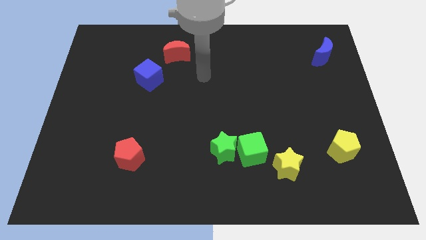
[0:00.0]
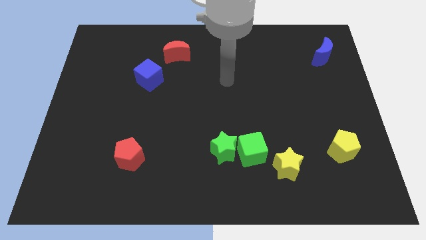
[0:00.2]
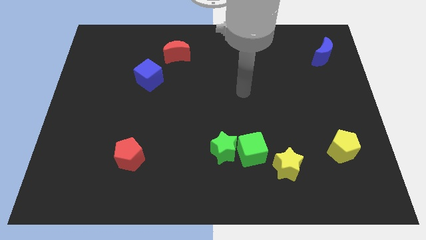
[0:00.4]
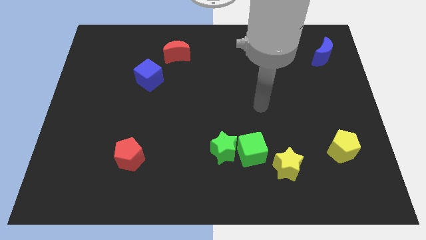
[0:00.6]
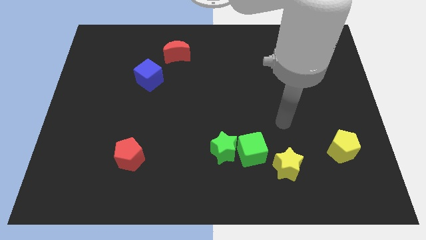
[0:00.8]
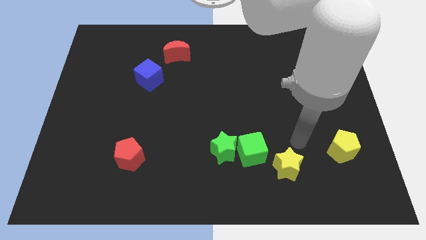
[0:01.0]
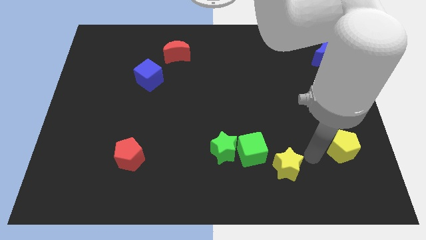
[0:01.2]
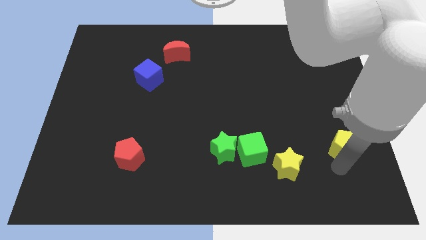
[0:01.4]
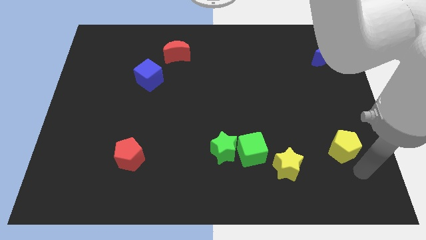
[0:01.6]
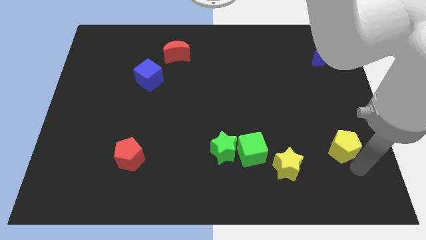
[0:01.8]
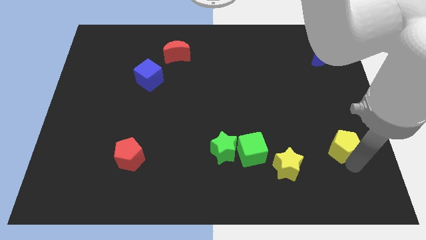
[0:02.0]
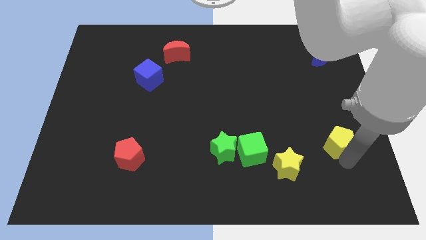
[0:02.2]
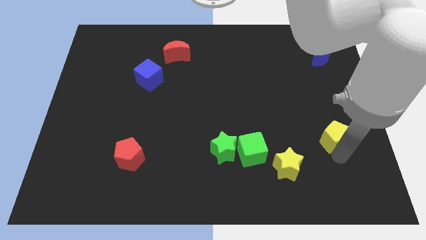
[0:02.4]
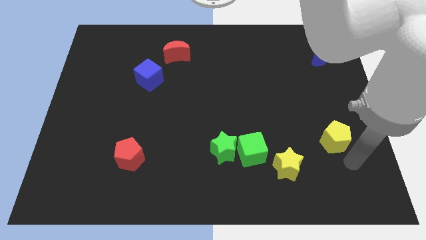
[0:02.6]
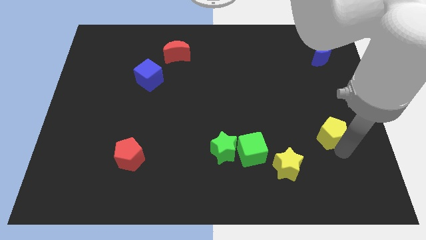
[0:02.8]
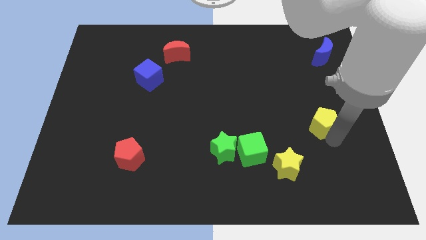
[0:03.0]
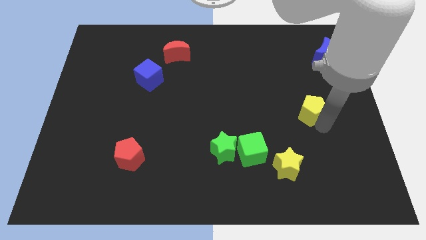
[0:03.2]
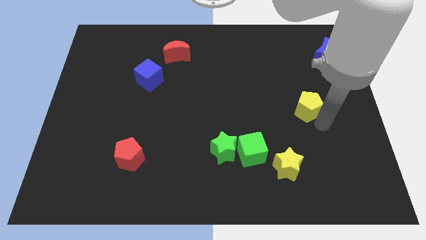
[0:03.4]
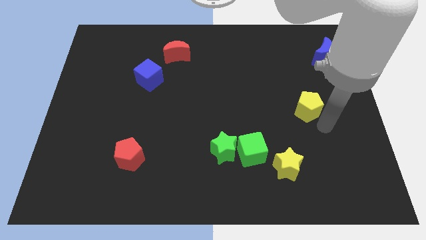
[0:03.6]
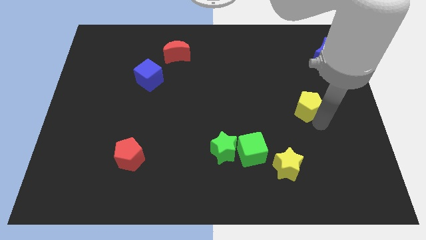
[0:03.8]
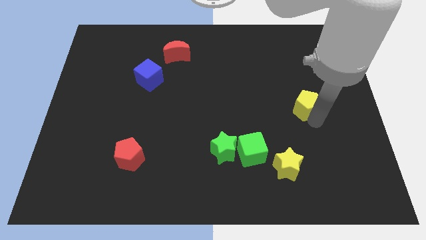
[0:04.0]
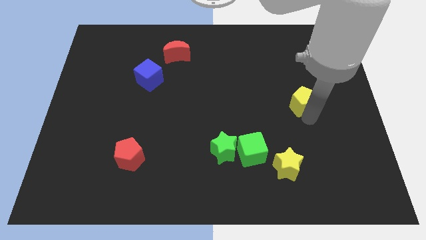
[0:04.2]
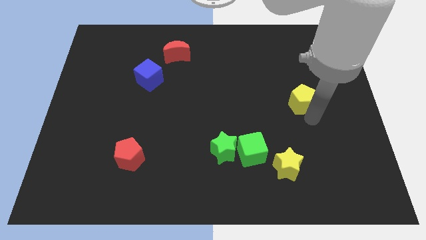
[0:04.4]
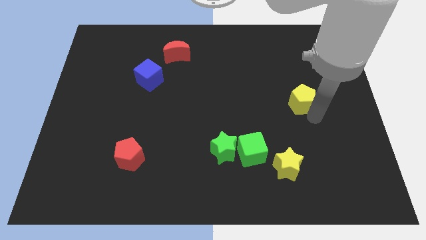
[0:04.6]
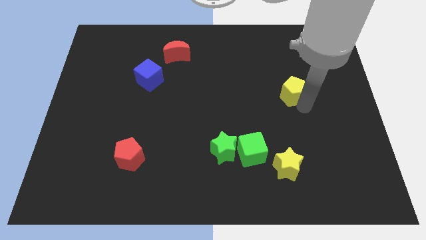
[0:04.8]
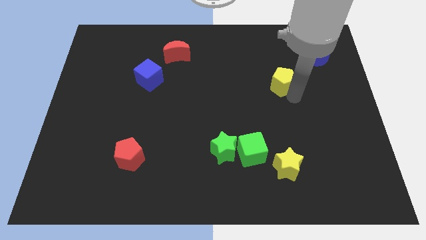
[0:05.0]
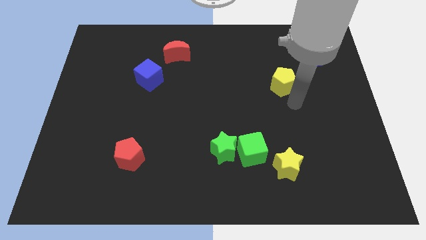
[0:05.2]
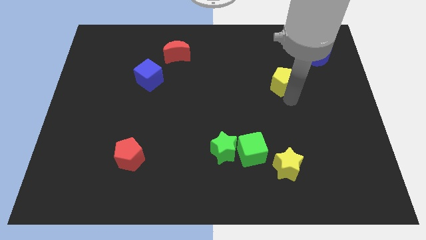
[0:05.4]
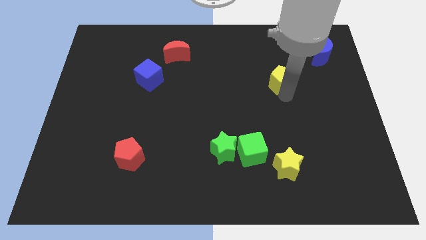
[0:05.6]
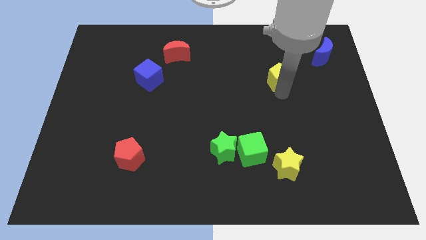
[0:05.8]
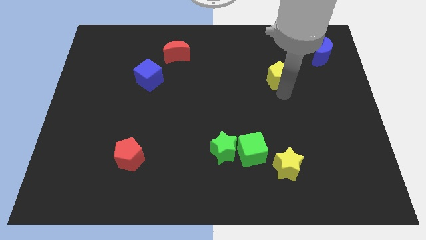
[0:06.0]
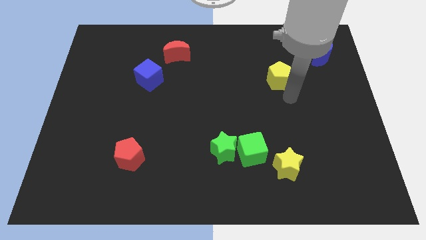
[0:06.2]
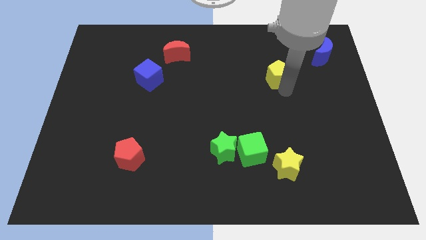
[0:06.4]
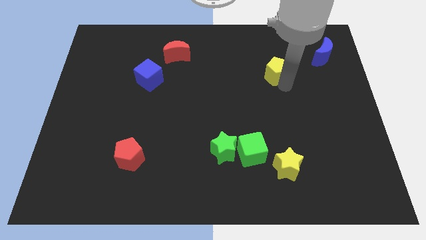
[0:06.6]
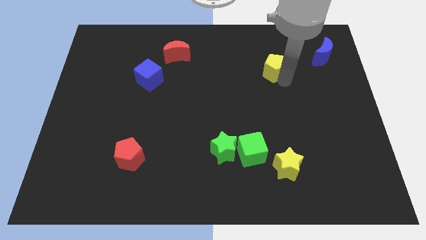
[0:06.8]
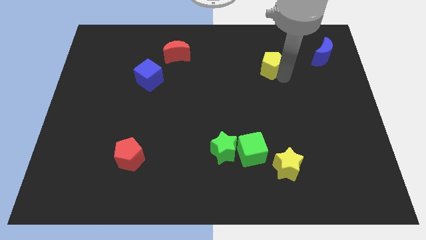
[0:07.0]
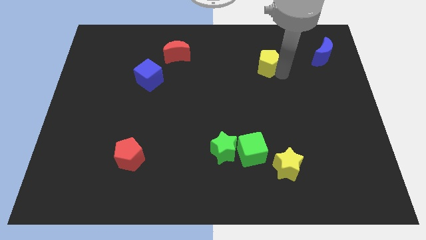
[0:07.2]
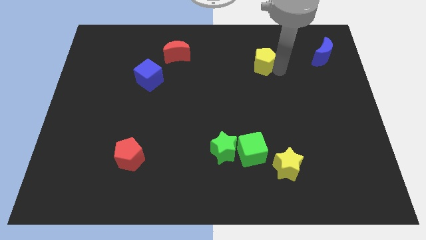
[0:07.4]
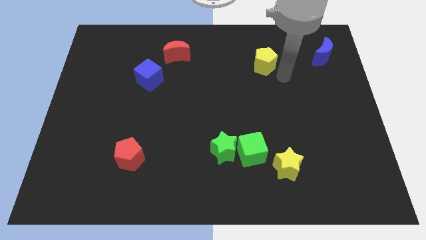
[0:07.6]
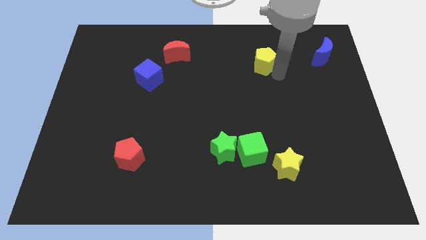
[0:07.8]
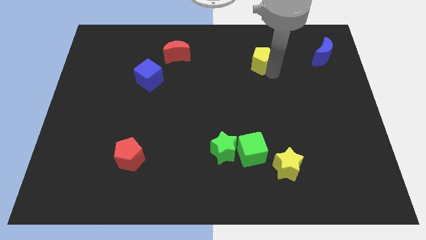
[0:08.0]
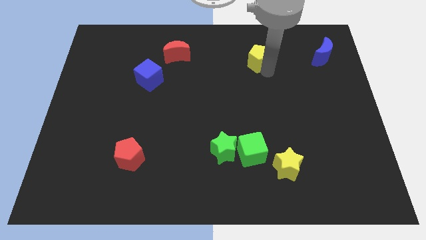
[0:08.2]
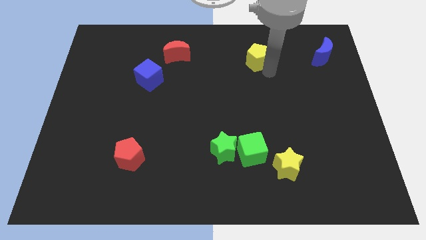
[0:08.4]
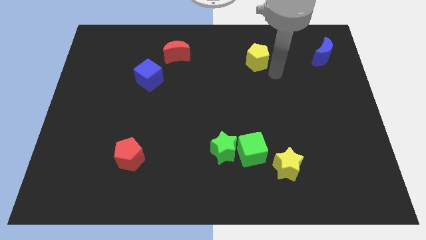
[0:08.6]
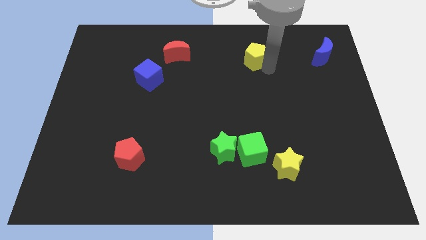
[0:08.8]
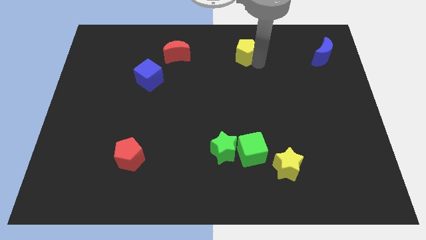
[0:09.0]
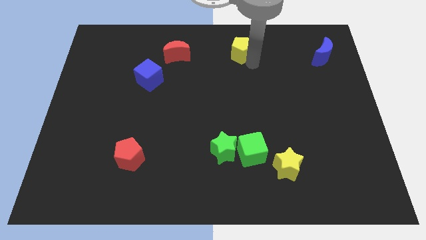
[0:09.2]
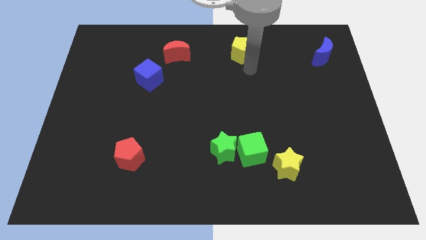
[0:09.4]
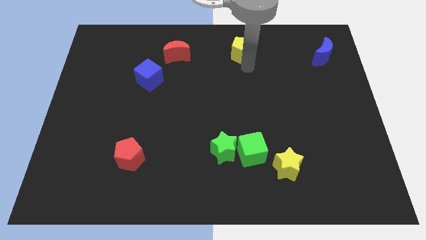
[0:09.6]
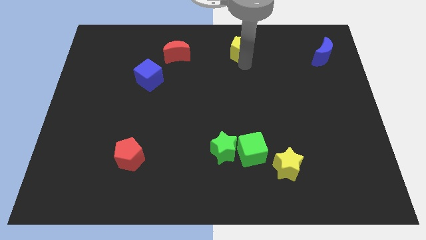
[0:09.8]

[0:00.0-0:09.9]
slide the yellow pentagon to the top side

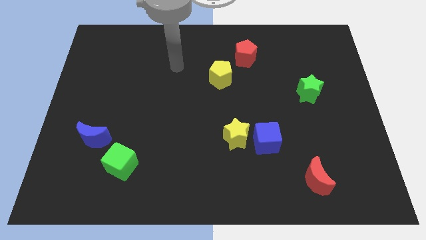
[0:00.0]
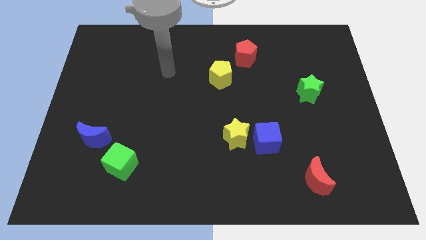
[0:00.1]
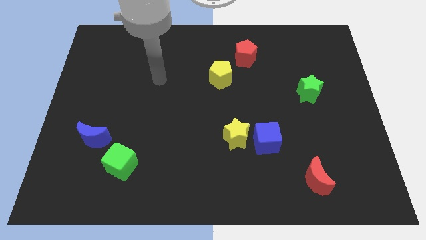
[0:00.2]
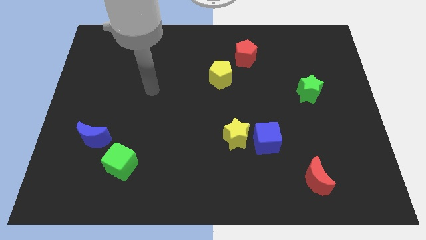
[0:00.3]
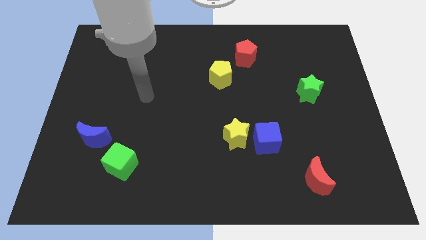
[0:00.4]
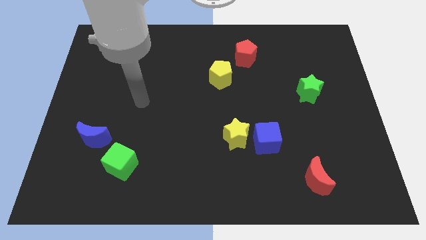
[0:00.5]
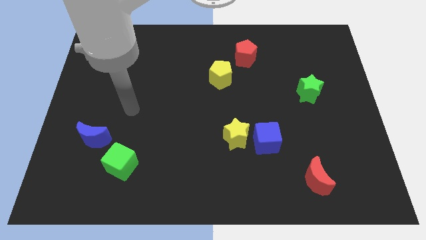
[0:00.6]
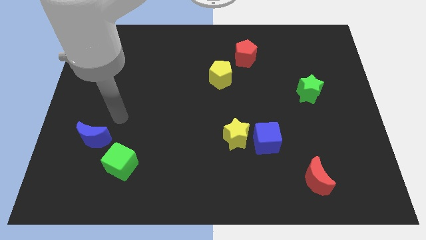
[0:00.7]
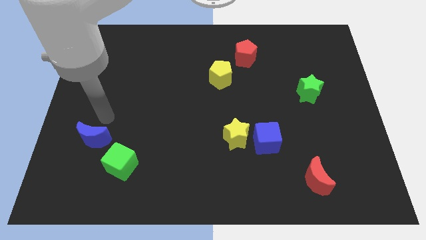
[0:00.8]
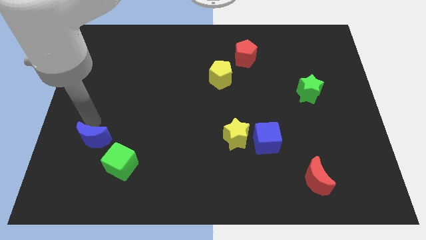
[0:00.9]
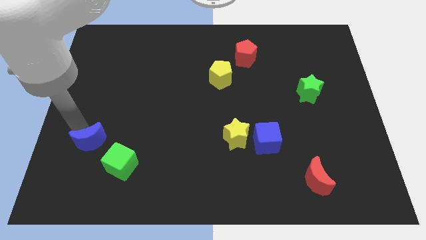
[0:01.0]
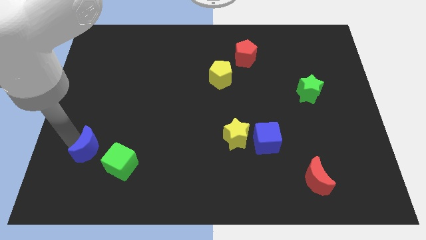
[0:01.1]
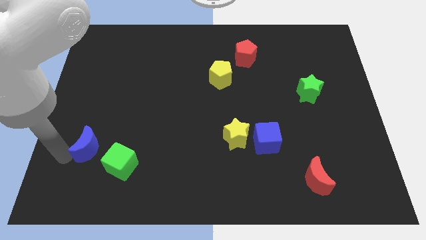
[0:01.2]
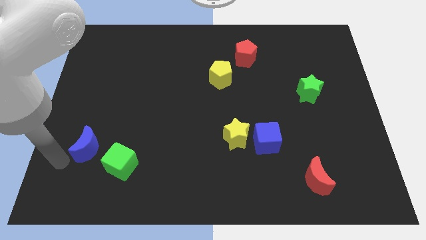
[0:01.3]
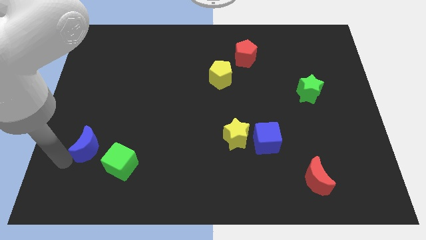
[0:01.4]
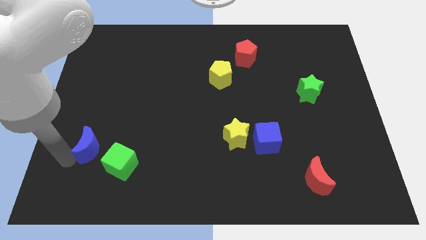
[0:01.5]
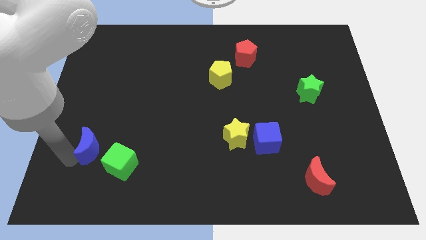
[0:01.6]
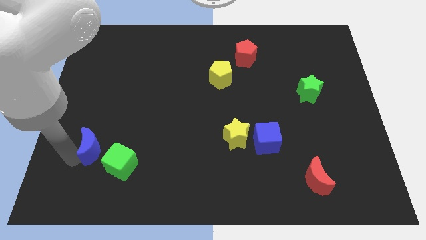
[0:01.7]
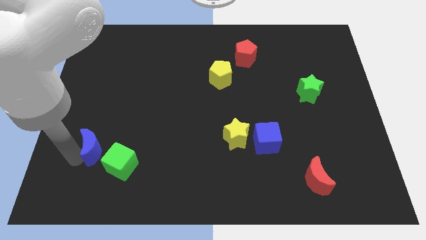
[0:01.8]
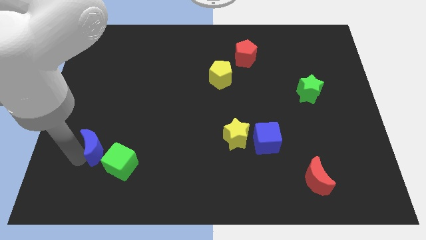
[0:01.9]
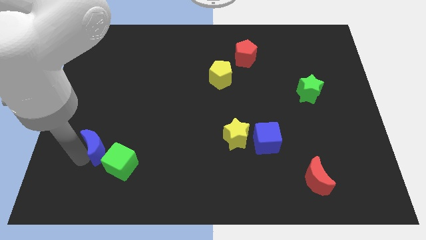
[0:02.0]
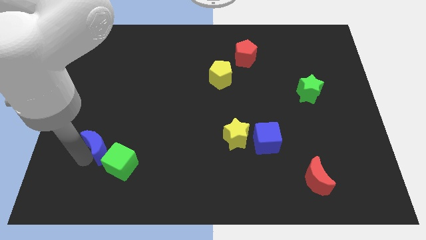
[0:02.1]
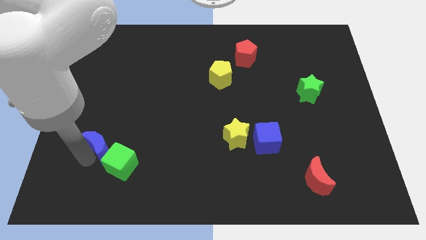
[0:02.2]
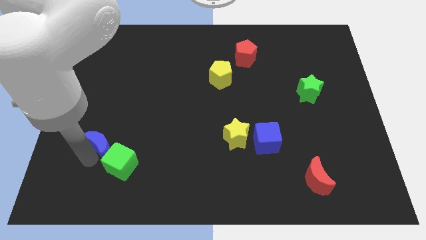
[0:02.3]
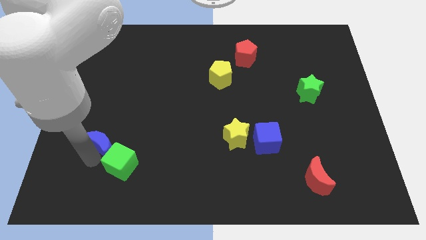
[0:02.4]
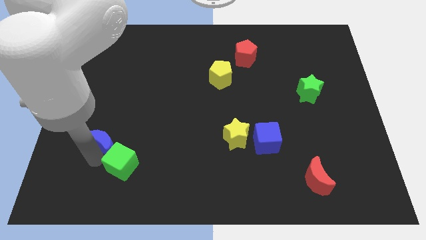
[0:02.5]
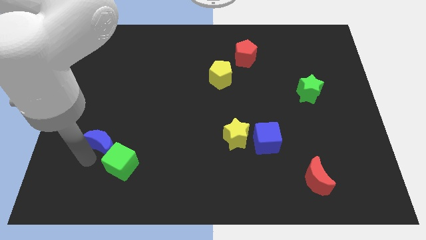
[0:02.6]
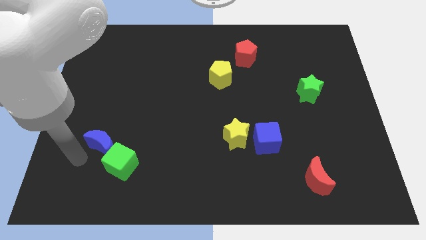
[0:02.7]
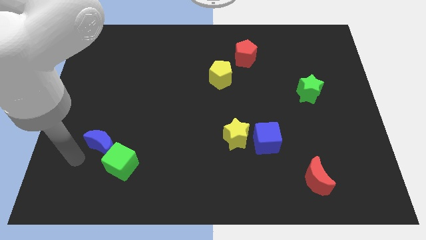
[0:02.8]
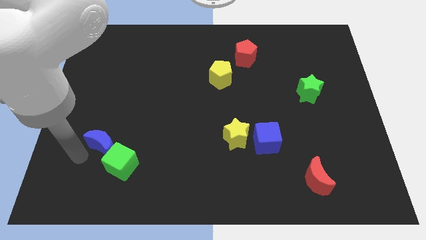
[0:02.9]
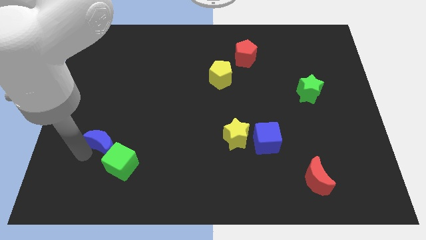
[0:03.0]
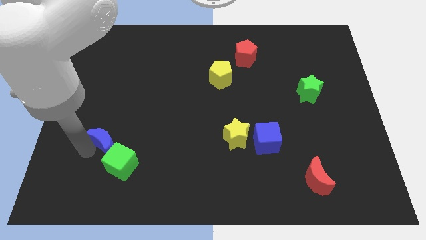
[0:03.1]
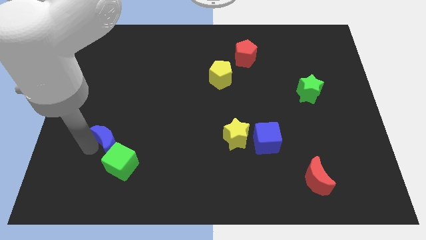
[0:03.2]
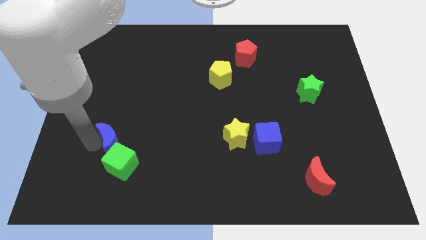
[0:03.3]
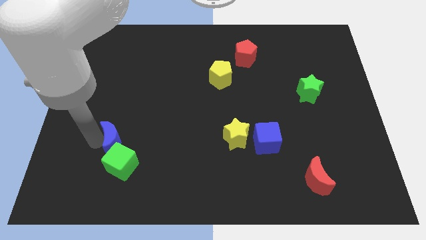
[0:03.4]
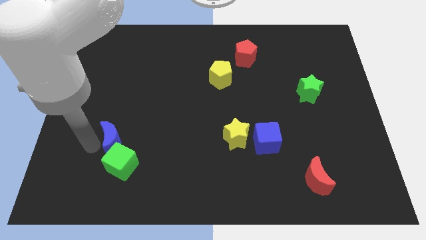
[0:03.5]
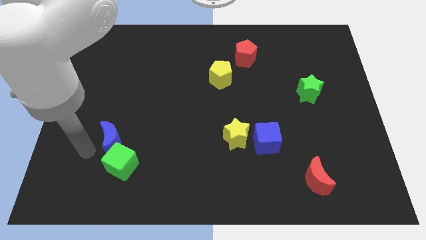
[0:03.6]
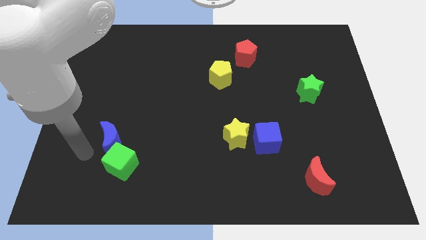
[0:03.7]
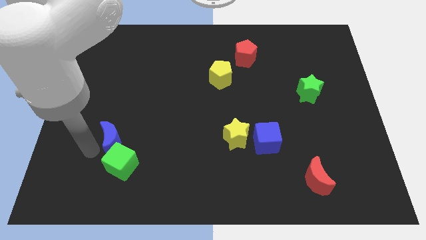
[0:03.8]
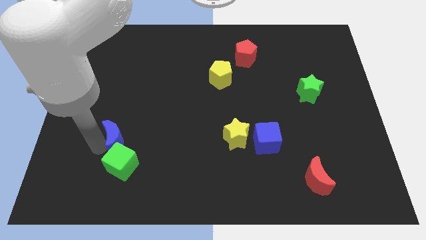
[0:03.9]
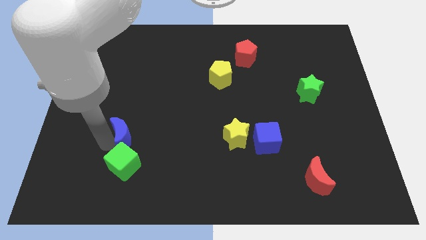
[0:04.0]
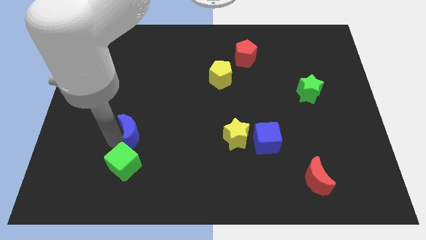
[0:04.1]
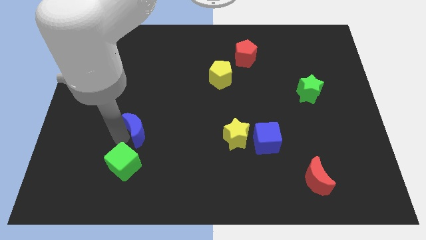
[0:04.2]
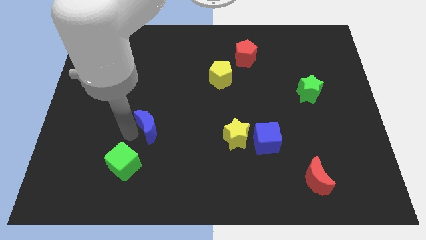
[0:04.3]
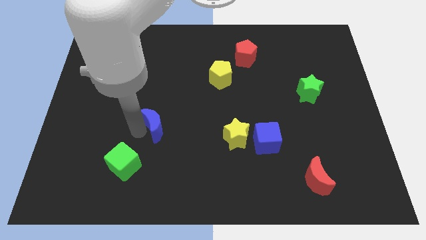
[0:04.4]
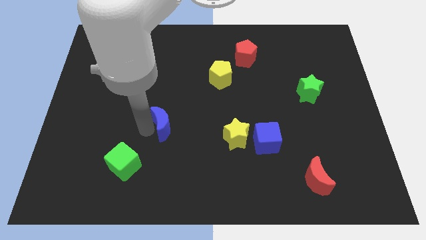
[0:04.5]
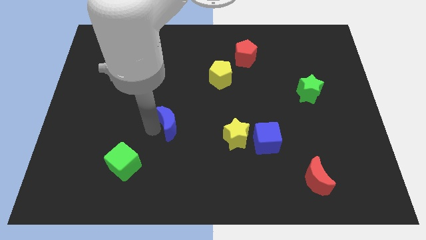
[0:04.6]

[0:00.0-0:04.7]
push the blue moon to the middle
